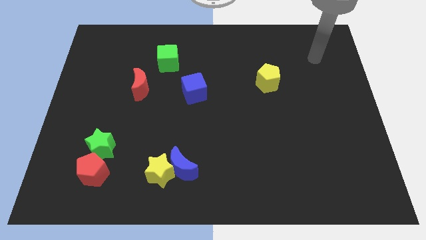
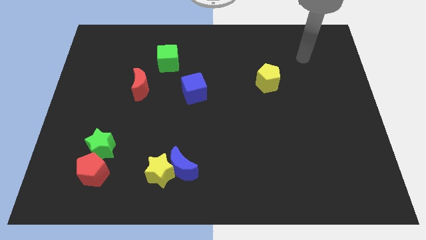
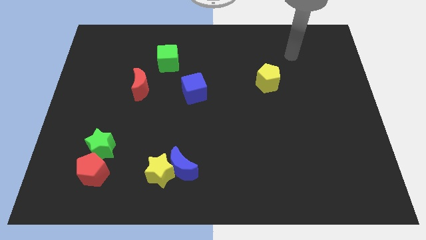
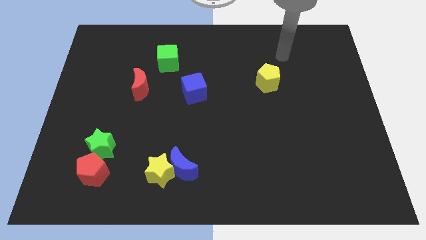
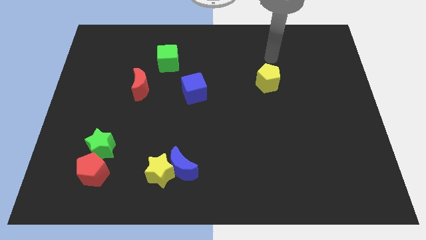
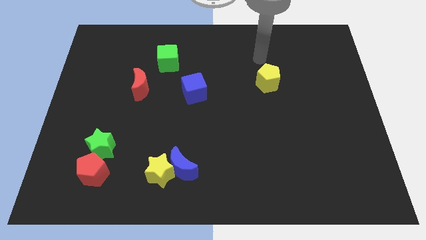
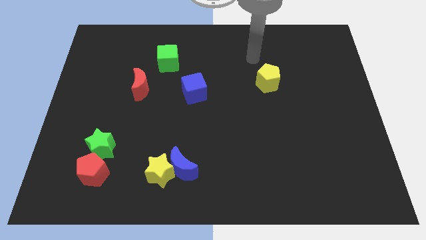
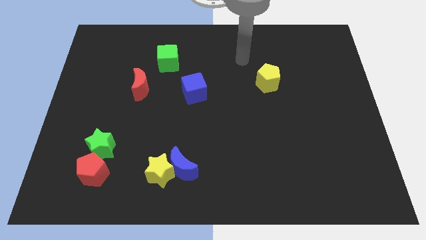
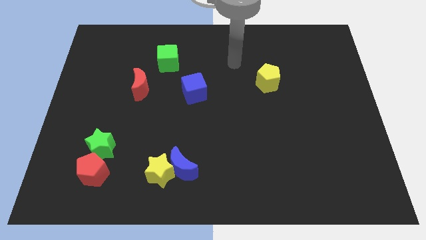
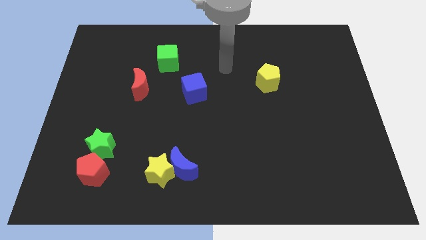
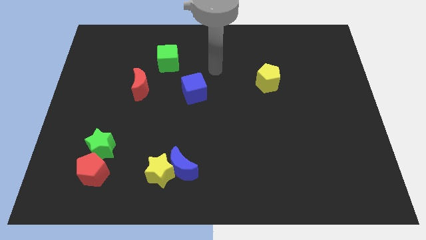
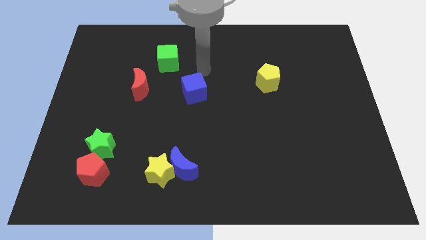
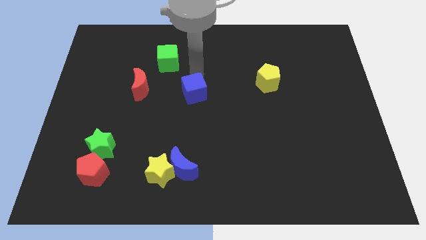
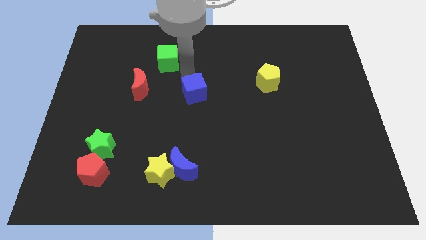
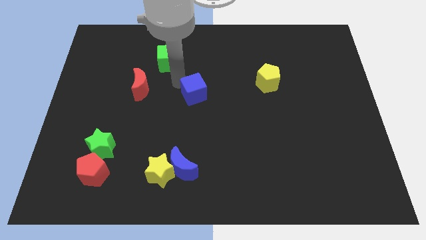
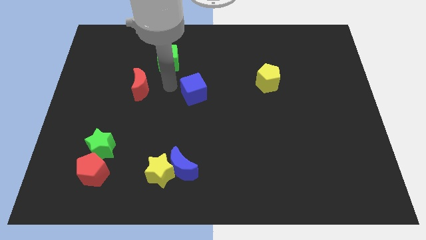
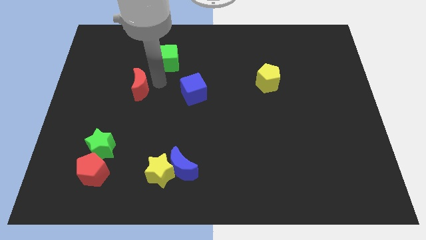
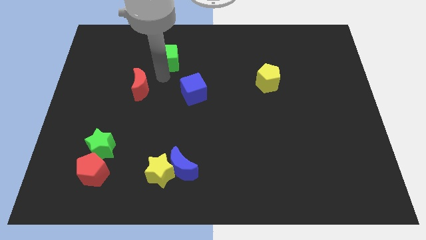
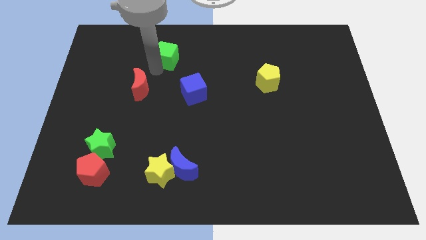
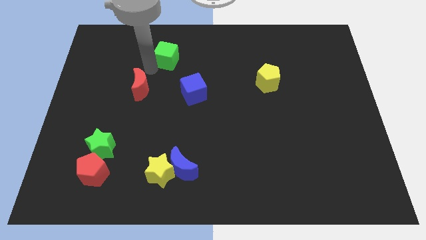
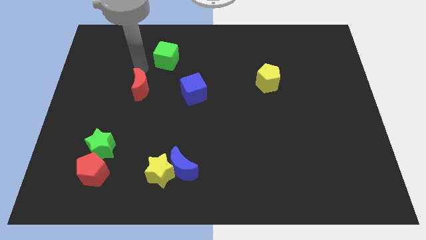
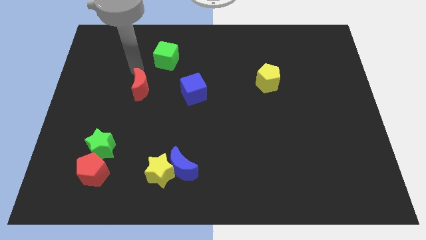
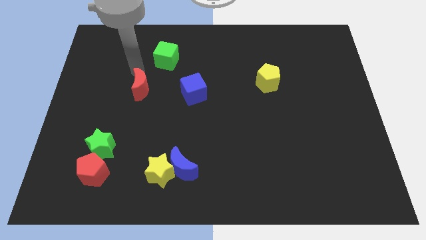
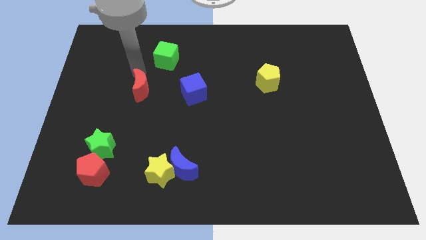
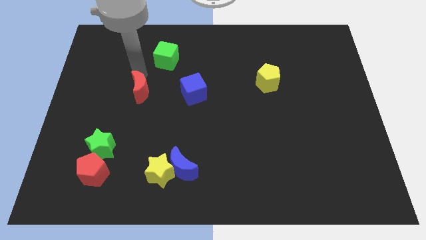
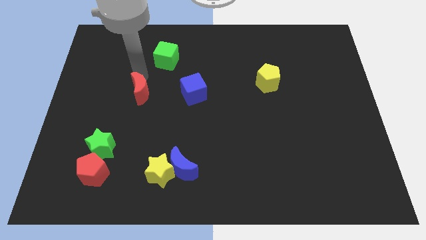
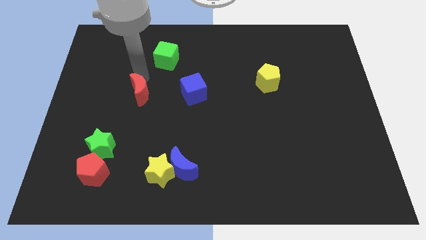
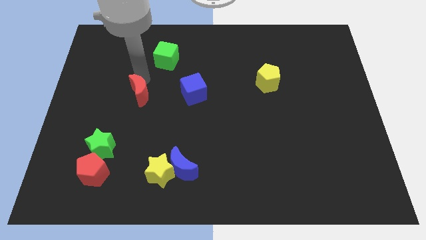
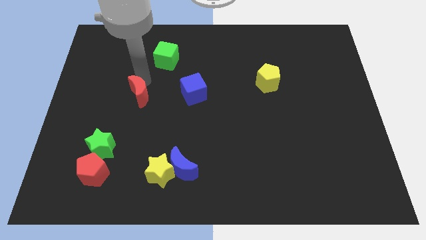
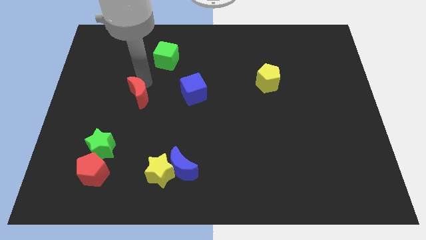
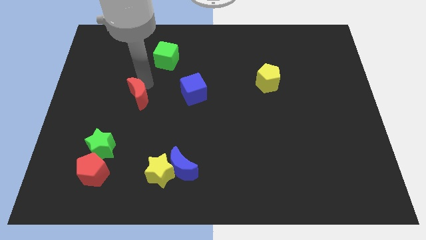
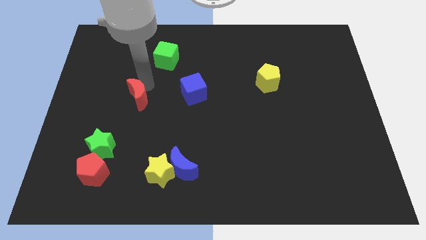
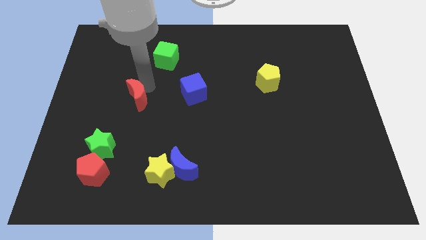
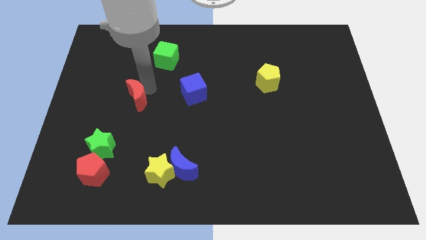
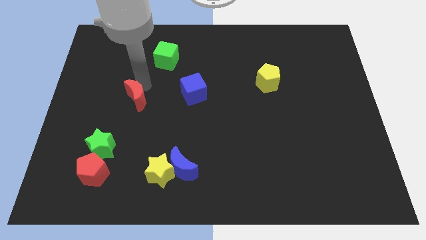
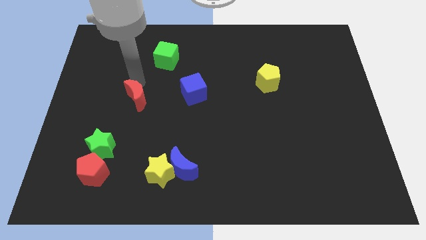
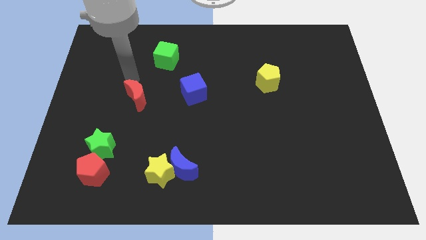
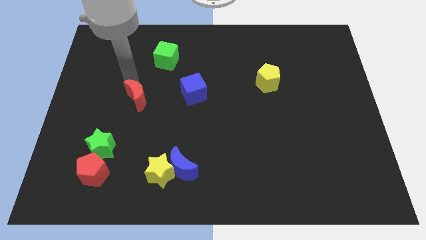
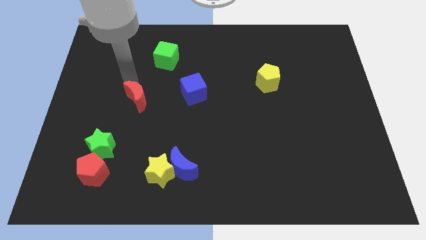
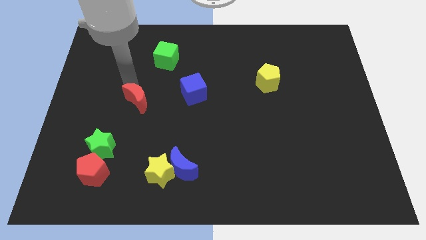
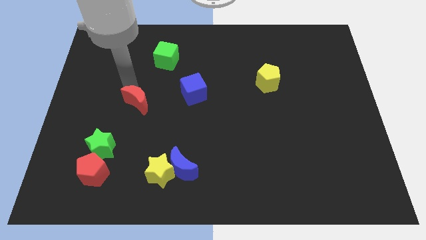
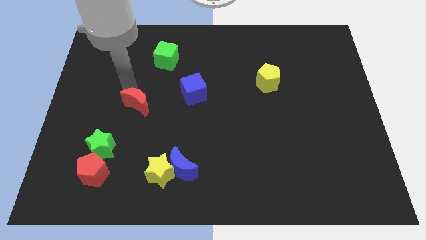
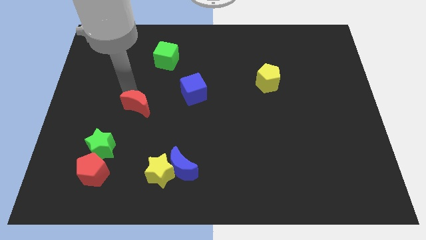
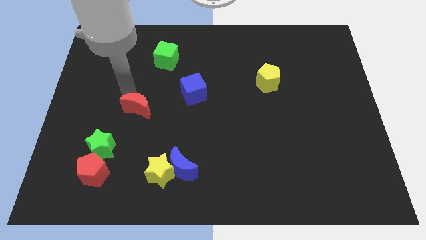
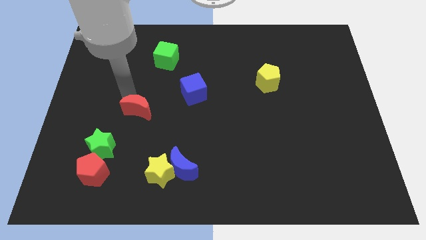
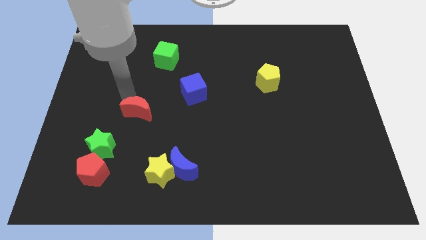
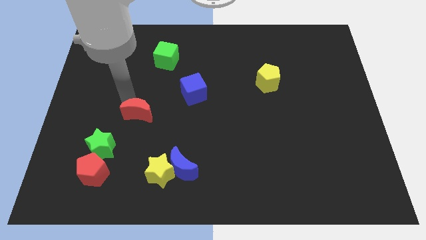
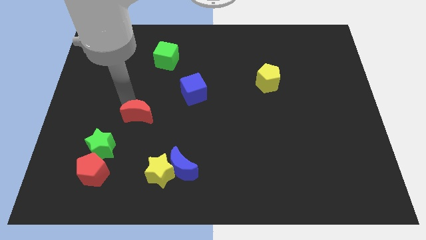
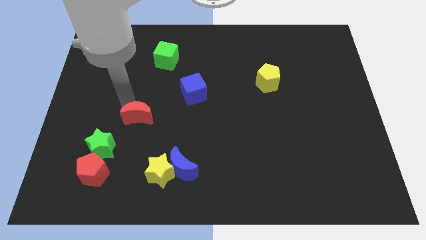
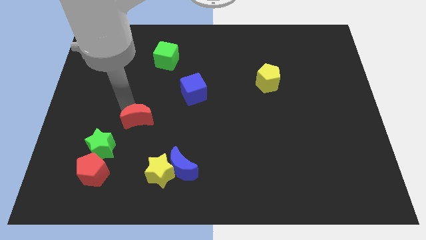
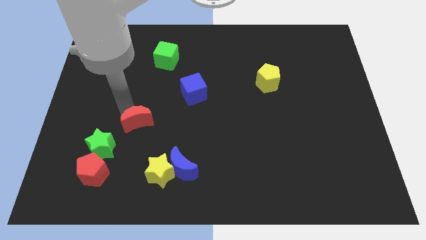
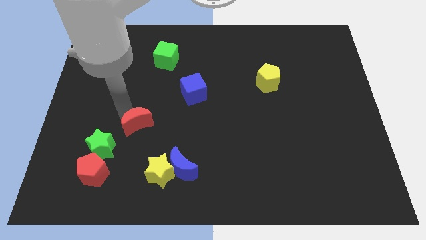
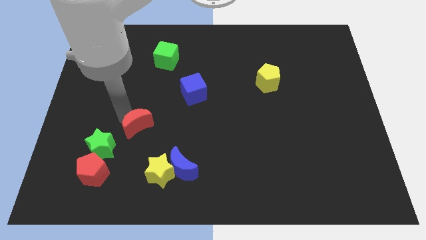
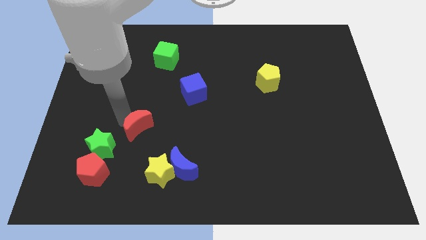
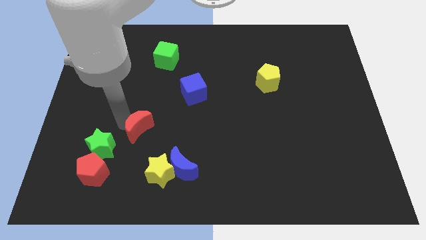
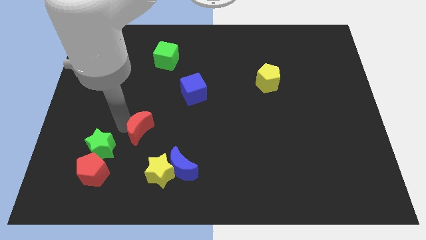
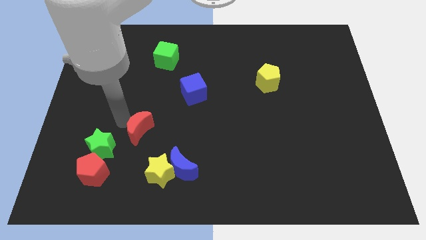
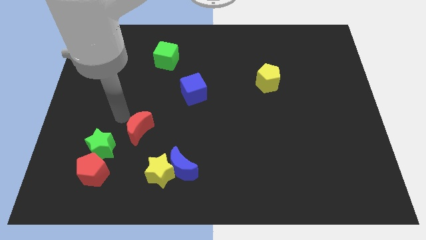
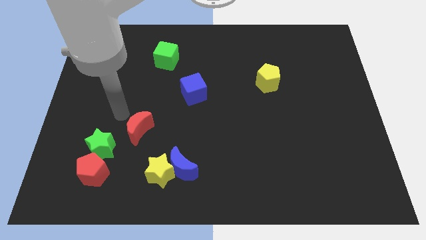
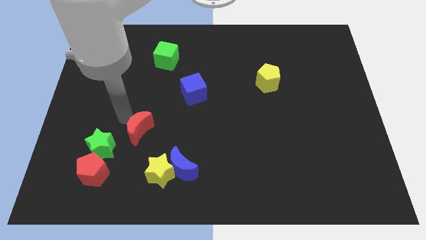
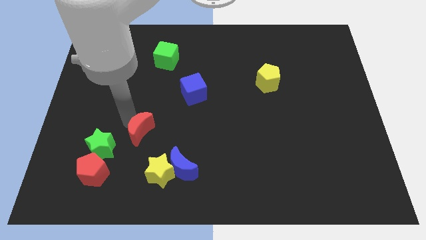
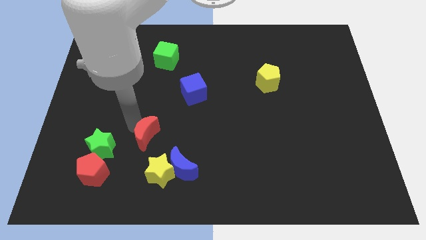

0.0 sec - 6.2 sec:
slide the red moon to the top left side of the blue moon

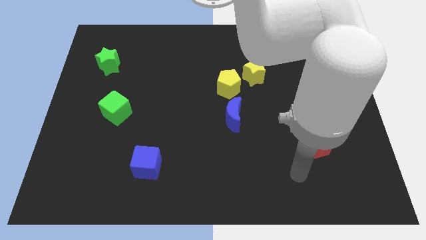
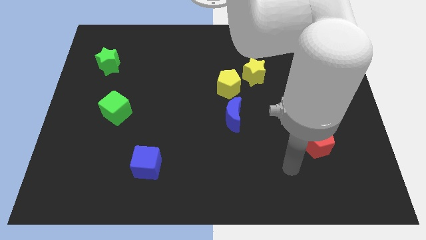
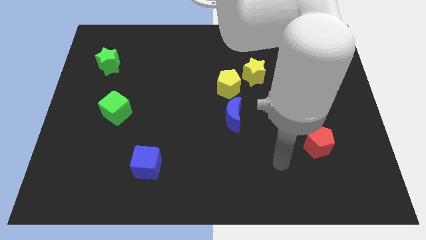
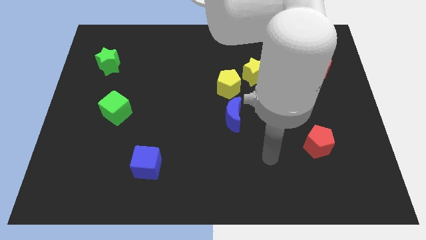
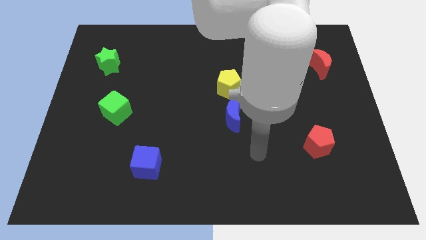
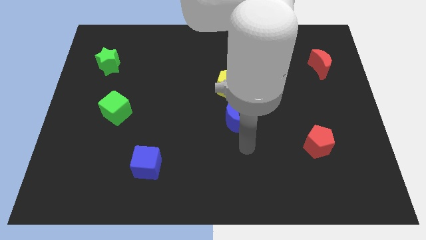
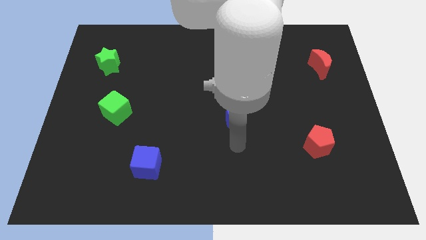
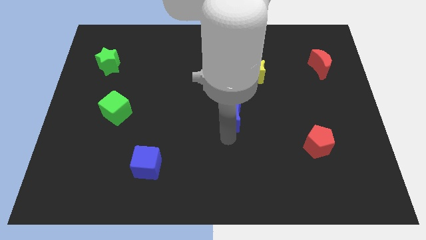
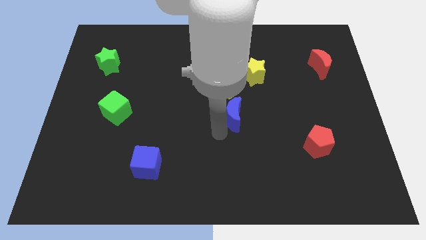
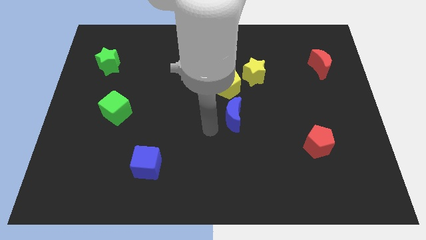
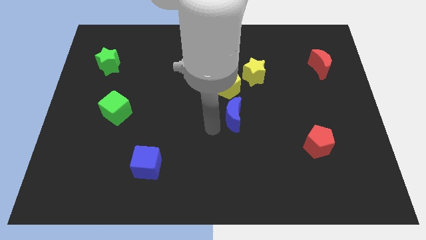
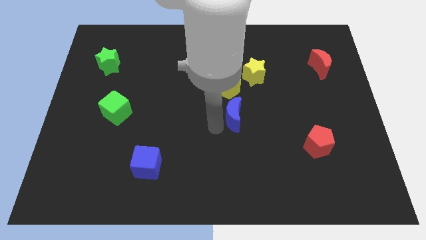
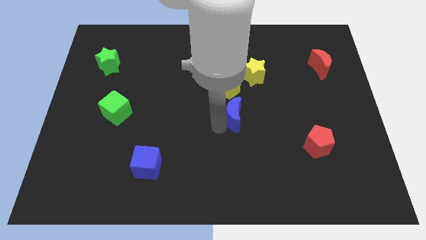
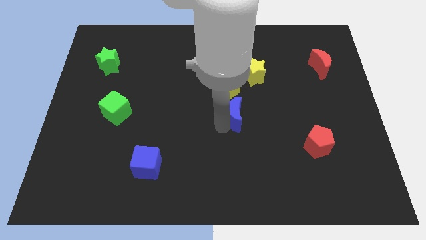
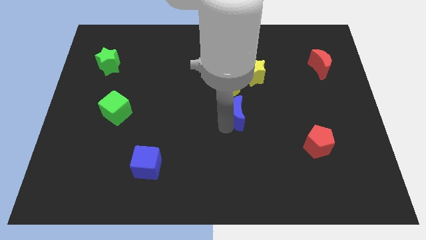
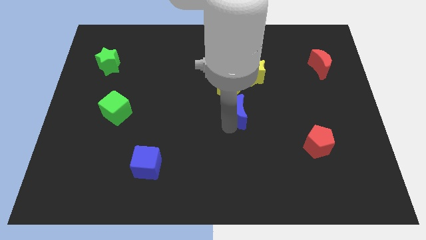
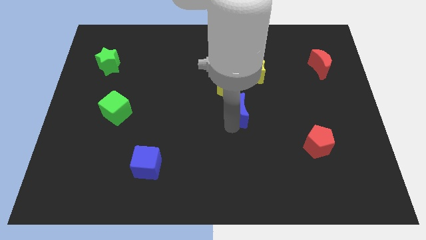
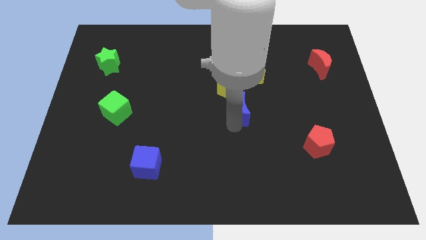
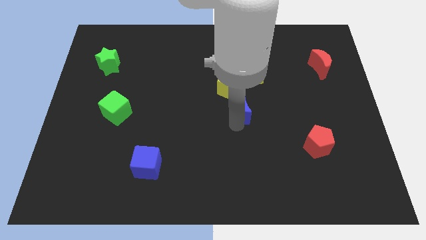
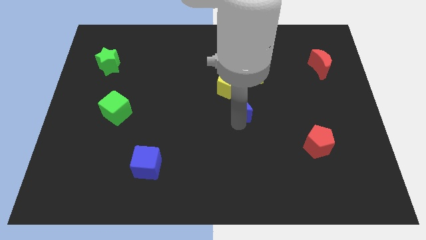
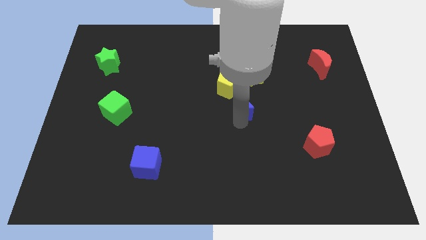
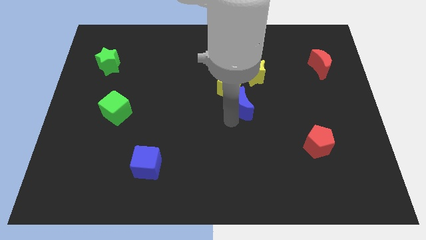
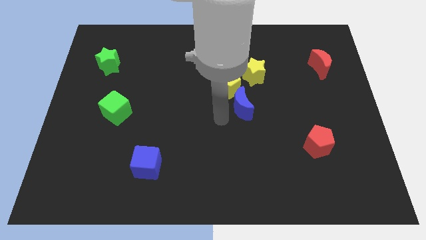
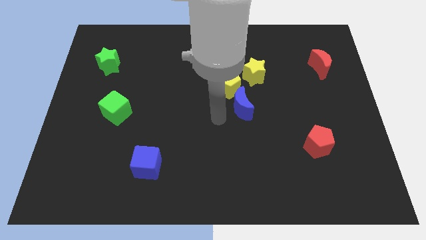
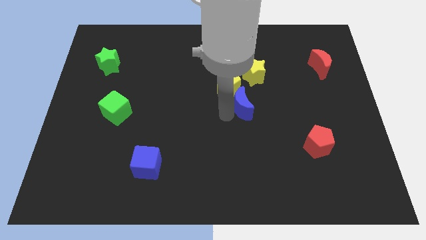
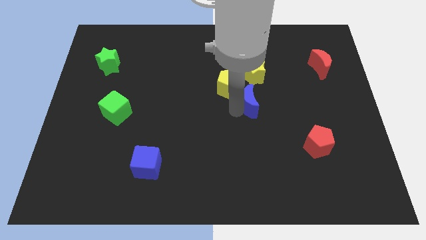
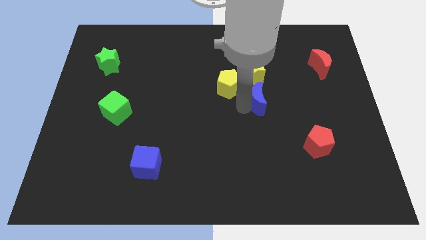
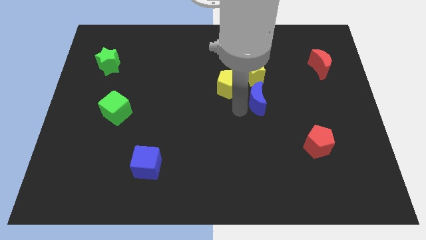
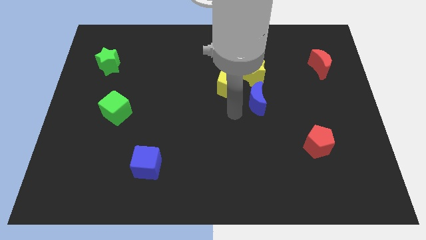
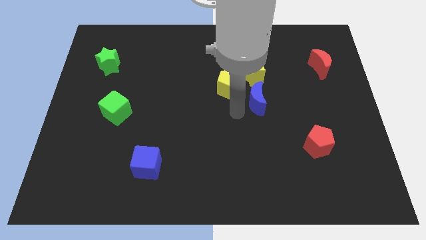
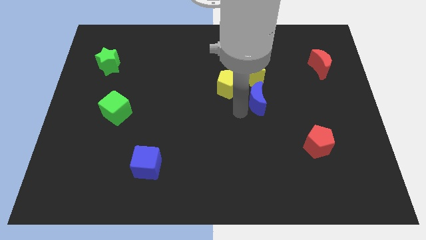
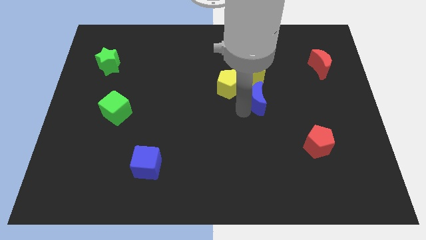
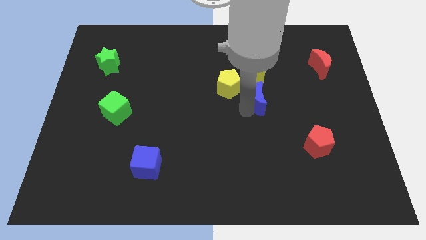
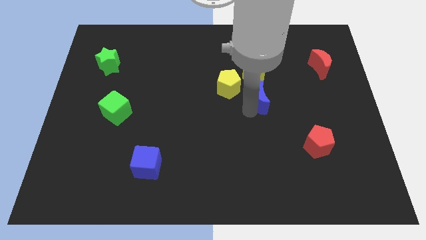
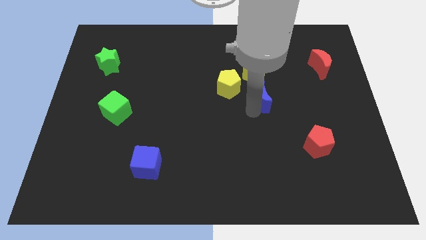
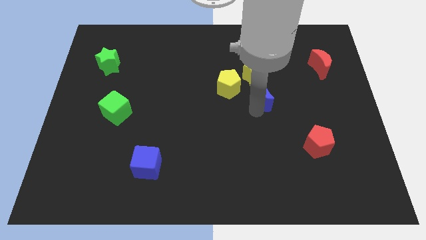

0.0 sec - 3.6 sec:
put the blue moon to the bottom right side of the yellow star
